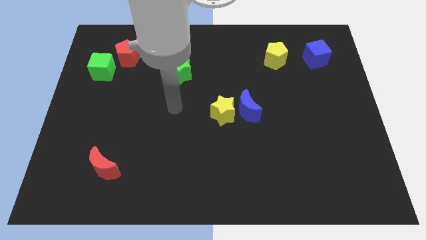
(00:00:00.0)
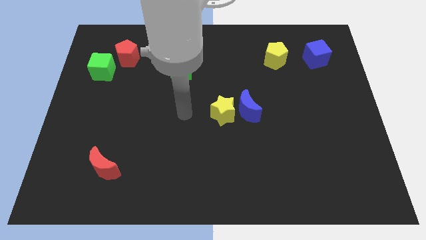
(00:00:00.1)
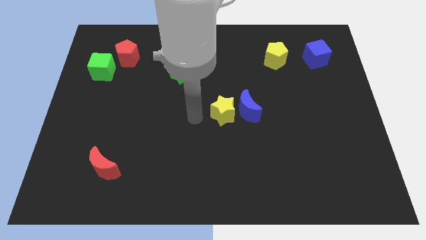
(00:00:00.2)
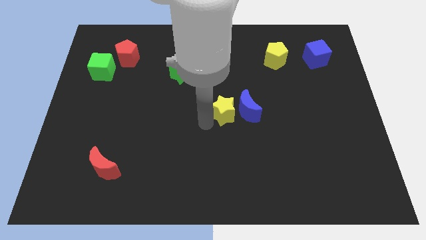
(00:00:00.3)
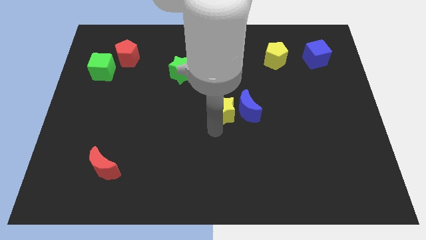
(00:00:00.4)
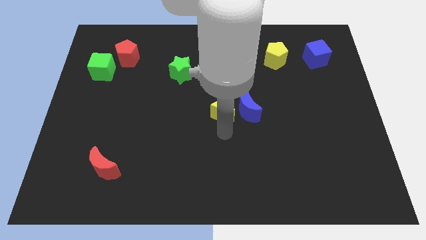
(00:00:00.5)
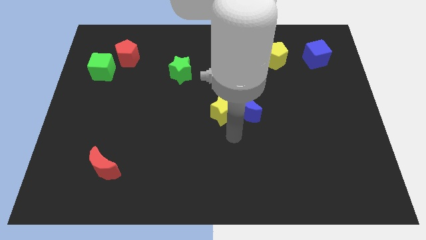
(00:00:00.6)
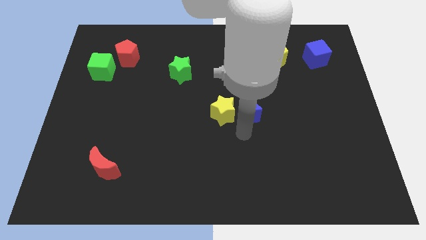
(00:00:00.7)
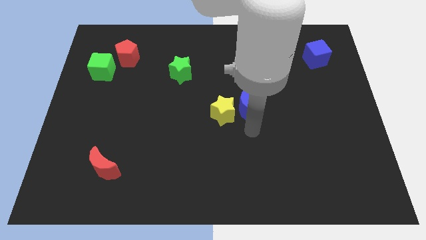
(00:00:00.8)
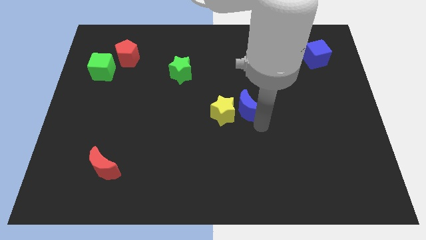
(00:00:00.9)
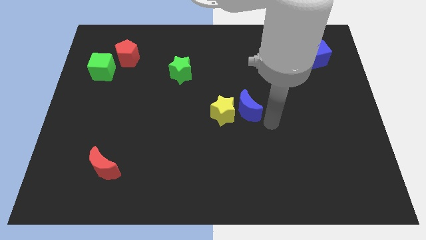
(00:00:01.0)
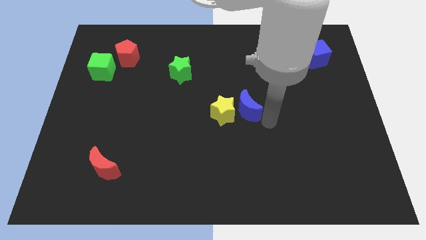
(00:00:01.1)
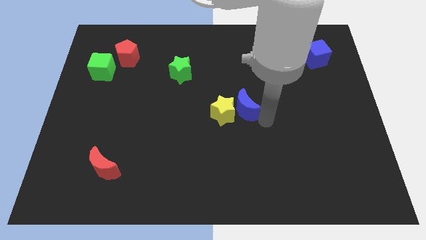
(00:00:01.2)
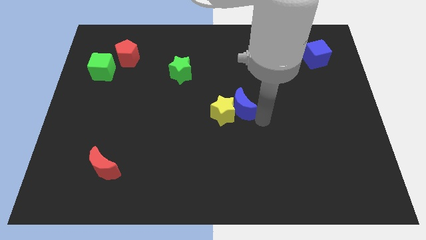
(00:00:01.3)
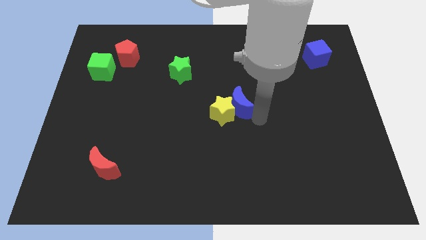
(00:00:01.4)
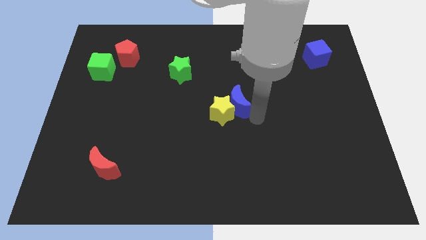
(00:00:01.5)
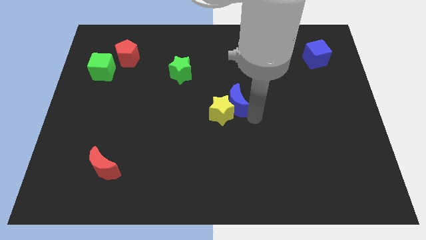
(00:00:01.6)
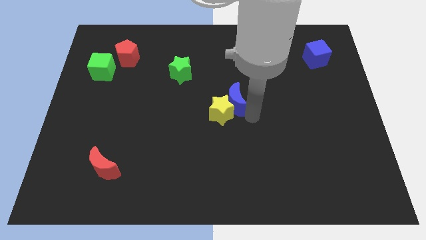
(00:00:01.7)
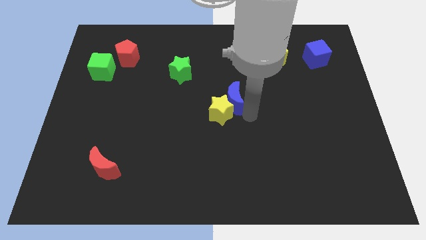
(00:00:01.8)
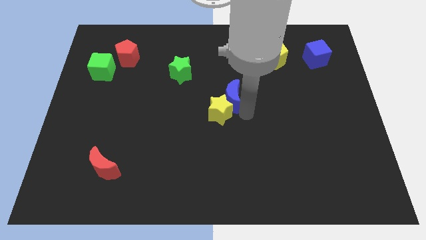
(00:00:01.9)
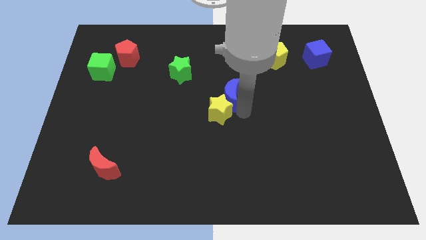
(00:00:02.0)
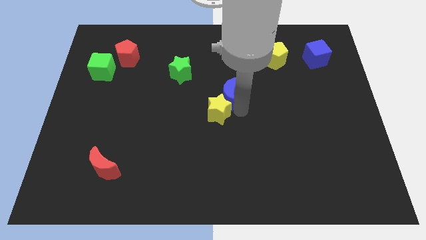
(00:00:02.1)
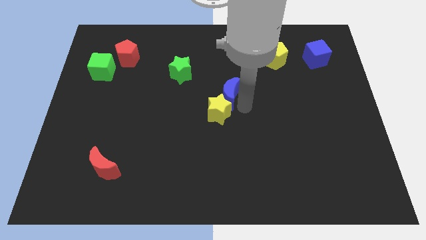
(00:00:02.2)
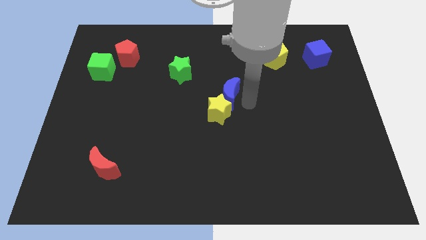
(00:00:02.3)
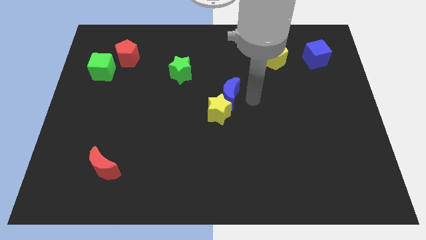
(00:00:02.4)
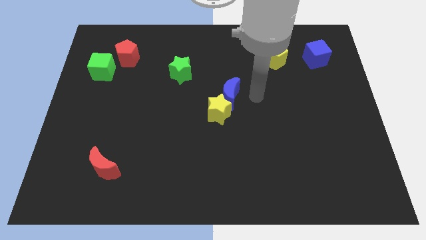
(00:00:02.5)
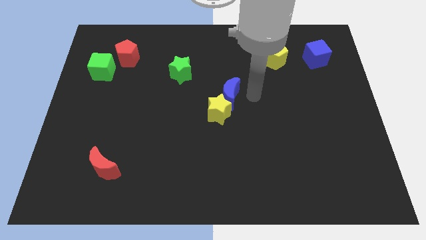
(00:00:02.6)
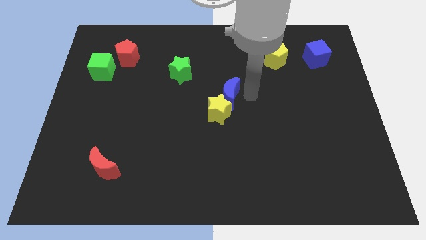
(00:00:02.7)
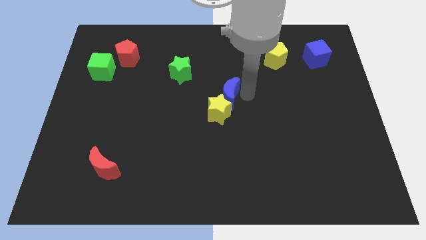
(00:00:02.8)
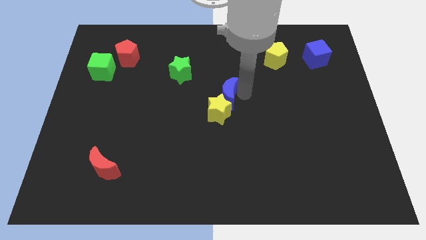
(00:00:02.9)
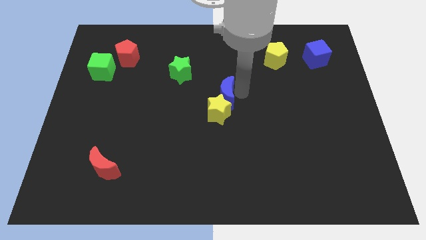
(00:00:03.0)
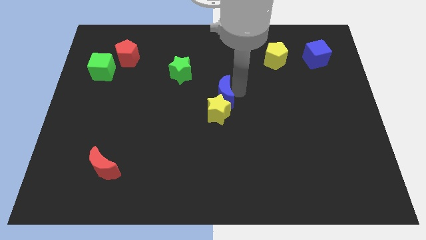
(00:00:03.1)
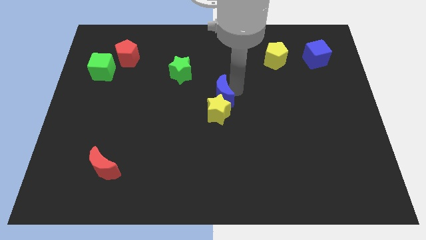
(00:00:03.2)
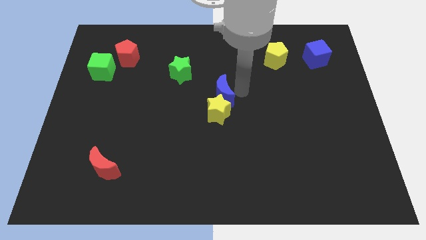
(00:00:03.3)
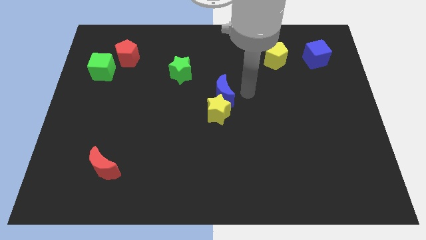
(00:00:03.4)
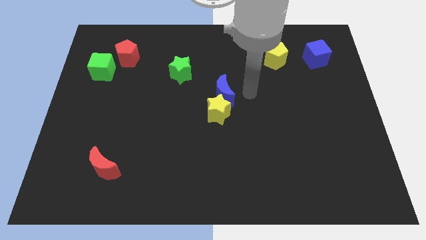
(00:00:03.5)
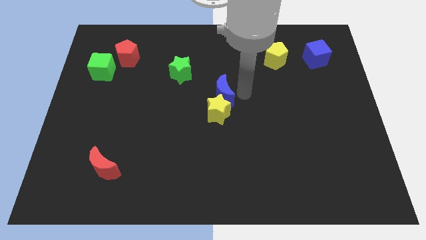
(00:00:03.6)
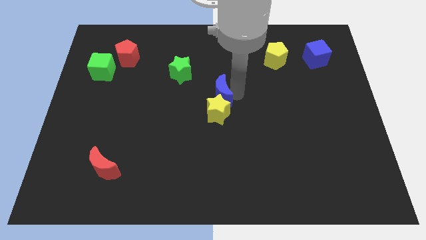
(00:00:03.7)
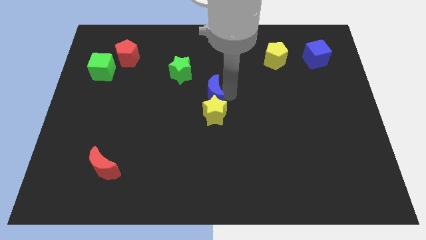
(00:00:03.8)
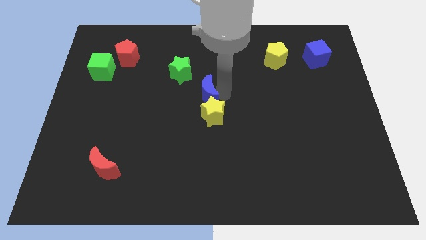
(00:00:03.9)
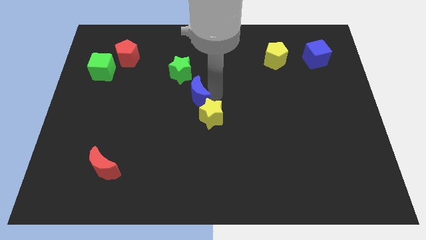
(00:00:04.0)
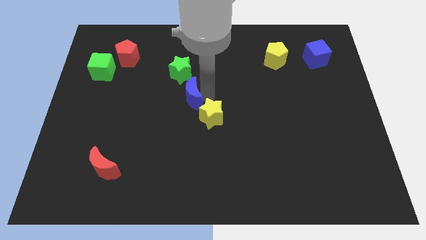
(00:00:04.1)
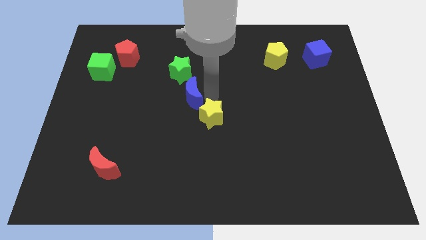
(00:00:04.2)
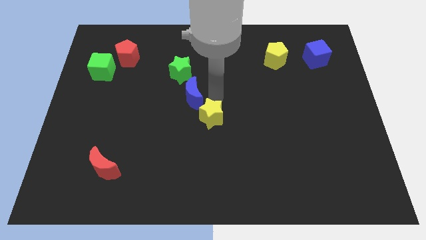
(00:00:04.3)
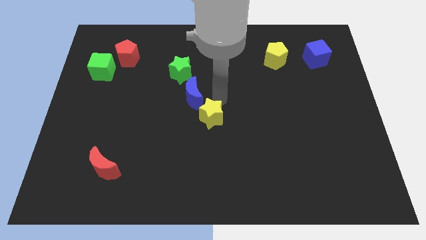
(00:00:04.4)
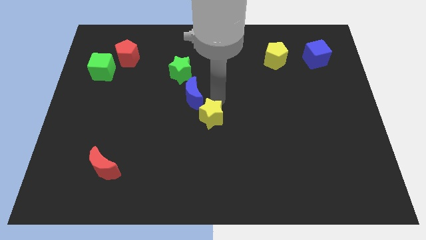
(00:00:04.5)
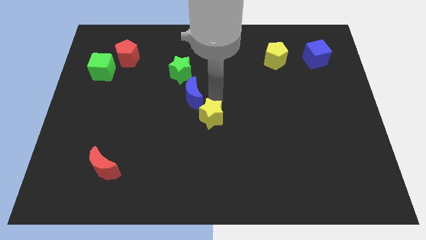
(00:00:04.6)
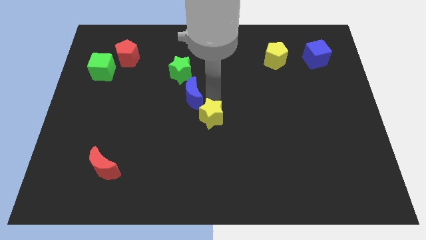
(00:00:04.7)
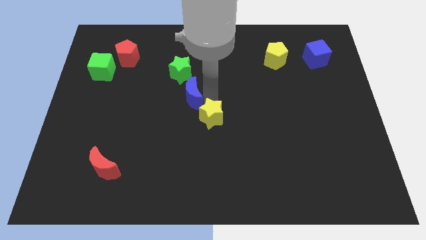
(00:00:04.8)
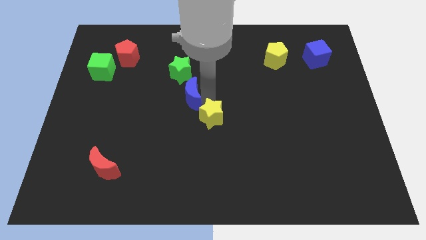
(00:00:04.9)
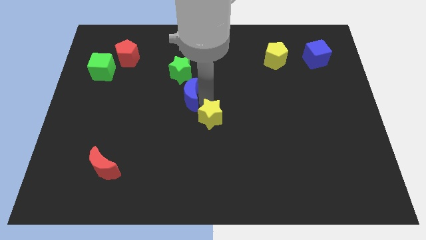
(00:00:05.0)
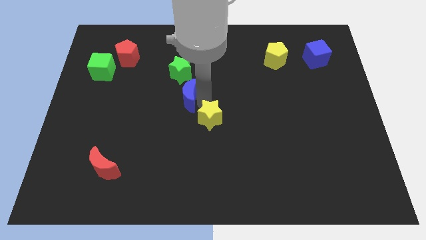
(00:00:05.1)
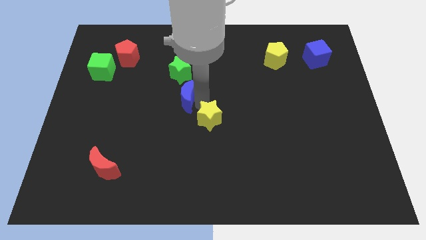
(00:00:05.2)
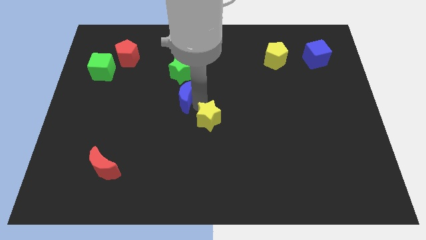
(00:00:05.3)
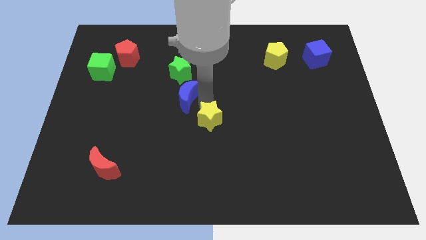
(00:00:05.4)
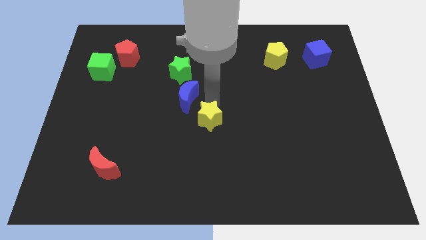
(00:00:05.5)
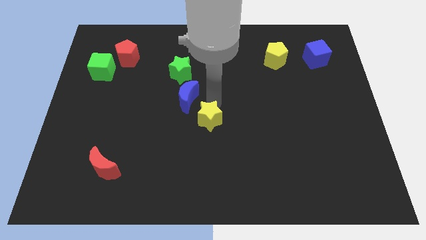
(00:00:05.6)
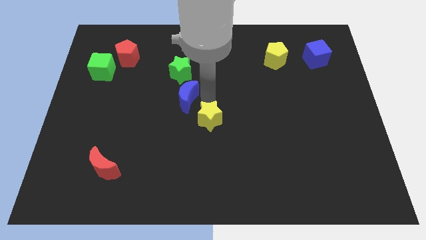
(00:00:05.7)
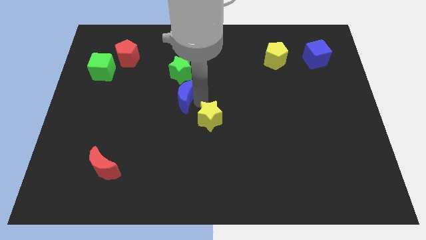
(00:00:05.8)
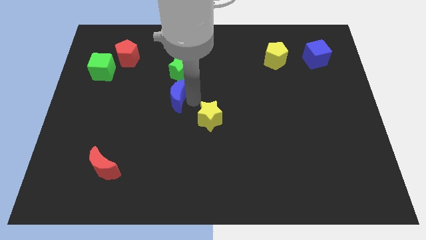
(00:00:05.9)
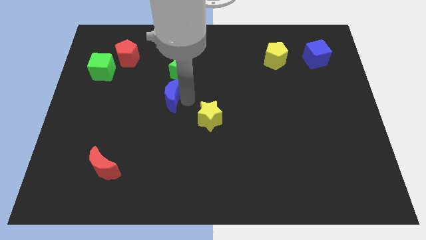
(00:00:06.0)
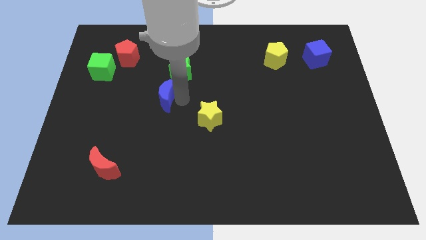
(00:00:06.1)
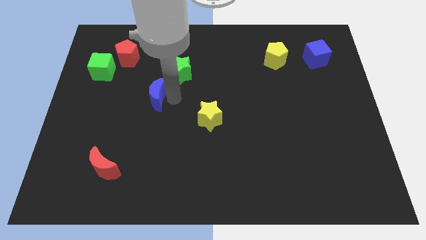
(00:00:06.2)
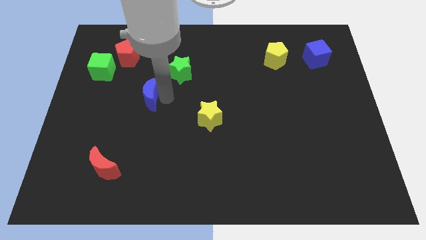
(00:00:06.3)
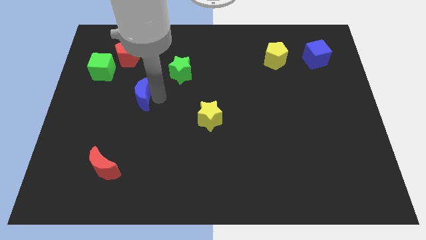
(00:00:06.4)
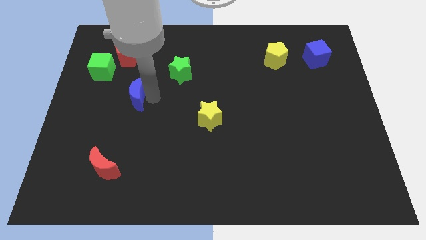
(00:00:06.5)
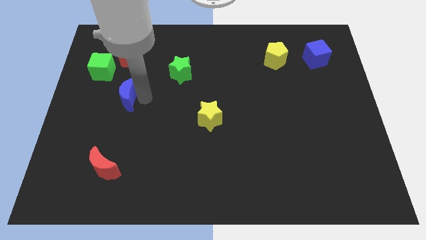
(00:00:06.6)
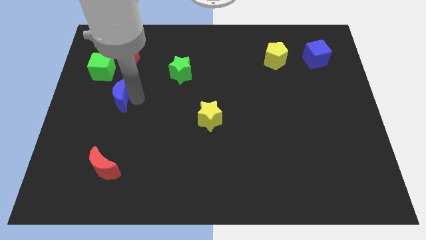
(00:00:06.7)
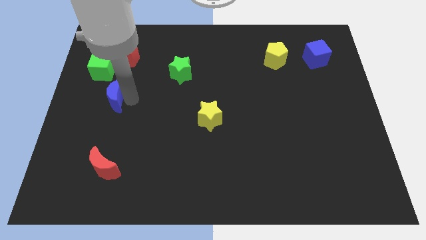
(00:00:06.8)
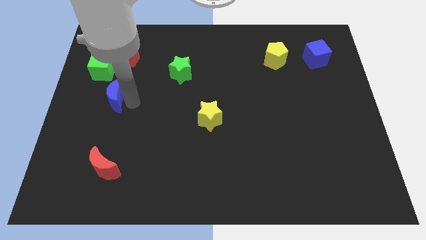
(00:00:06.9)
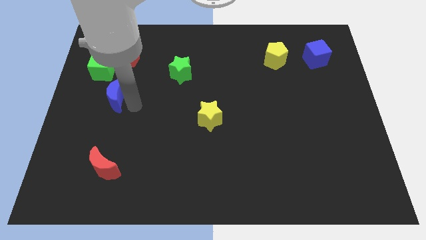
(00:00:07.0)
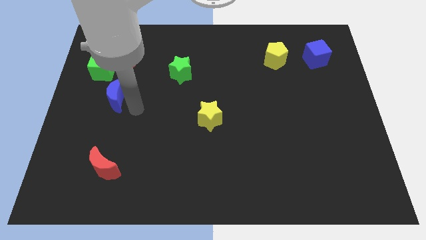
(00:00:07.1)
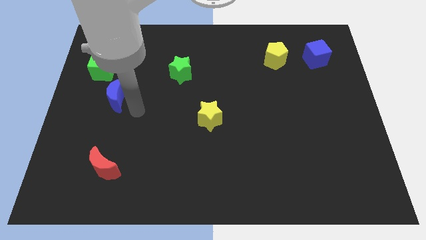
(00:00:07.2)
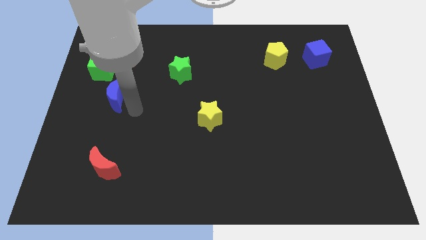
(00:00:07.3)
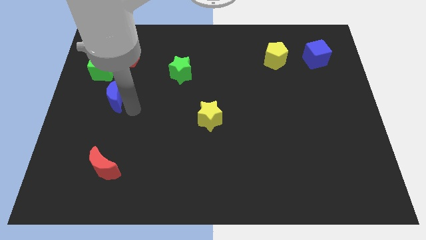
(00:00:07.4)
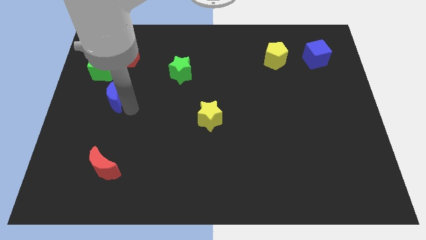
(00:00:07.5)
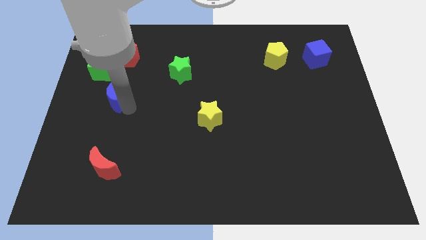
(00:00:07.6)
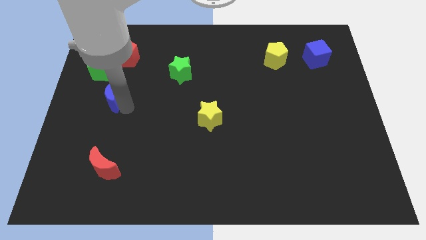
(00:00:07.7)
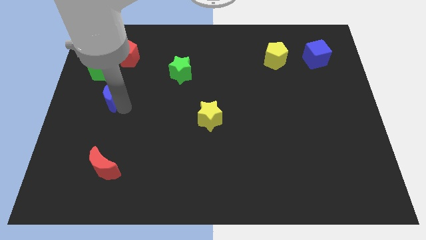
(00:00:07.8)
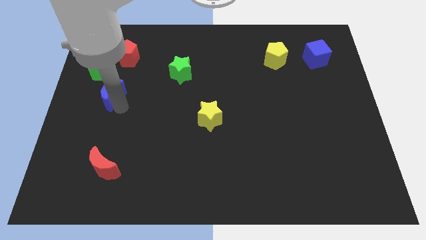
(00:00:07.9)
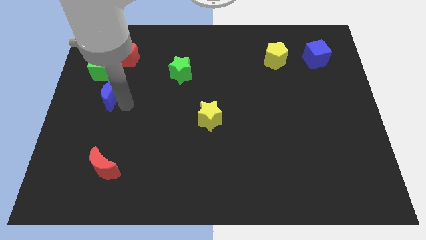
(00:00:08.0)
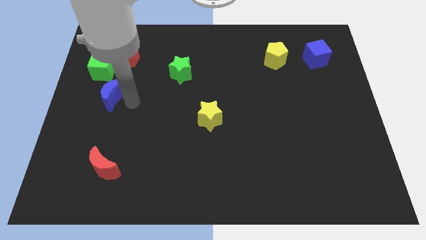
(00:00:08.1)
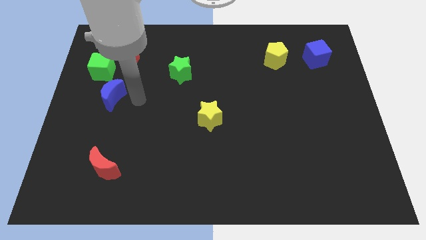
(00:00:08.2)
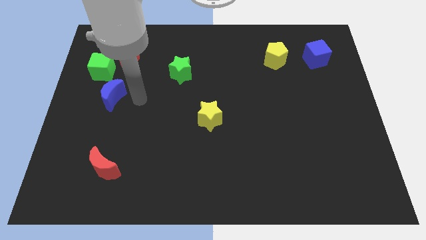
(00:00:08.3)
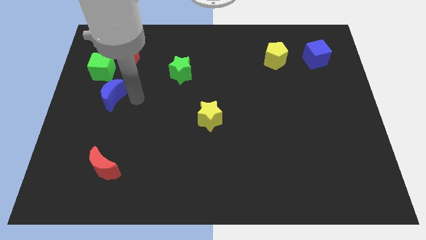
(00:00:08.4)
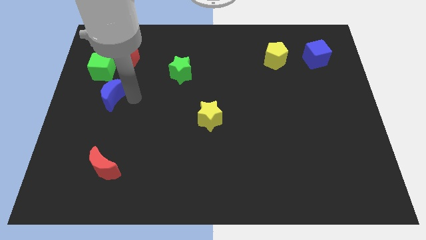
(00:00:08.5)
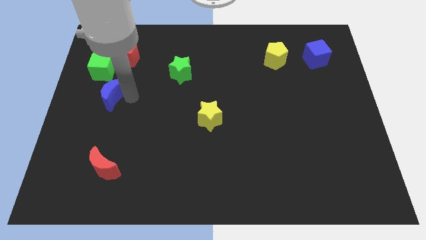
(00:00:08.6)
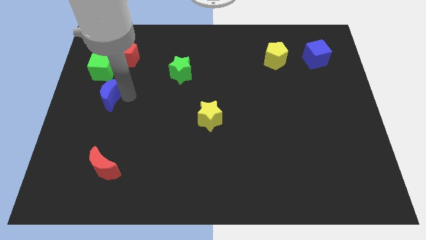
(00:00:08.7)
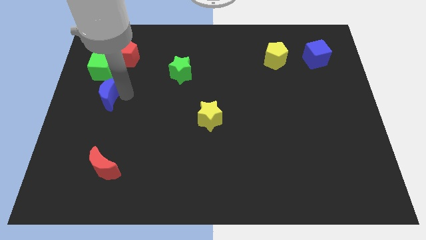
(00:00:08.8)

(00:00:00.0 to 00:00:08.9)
put the blue moon to the center left
